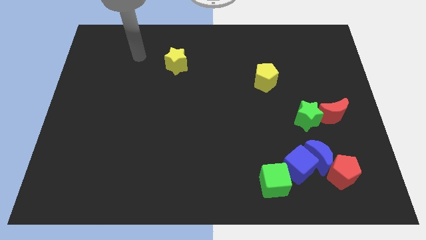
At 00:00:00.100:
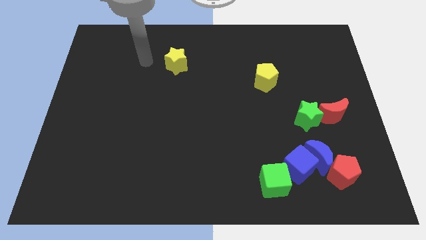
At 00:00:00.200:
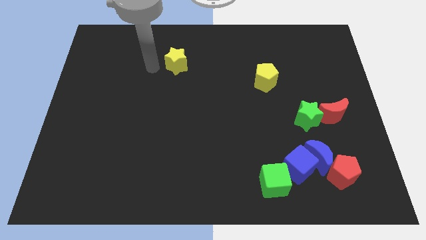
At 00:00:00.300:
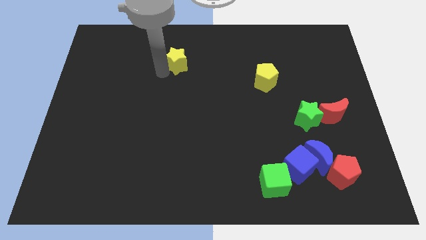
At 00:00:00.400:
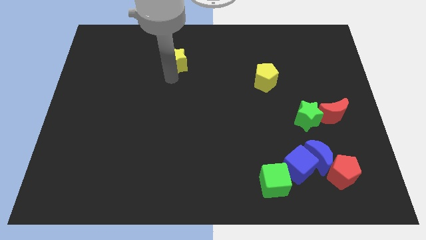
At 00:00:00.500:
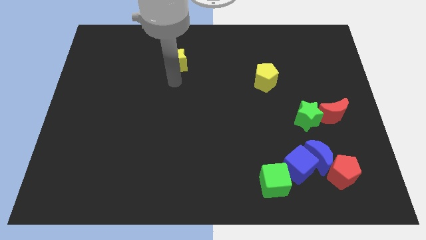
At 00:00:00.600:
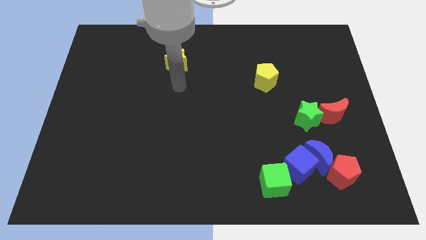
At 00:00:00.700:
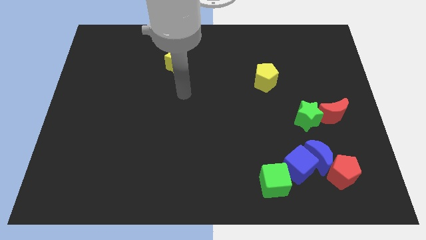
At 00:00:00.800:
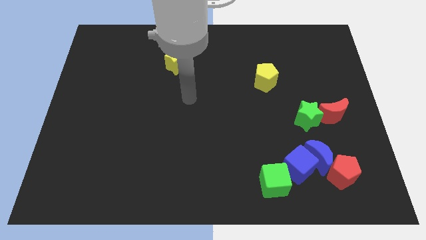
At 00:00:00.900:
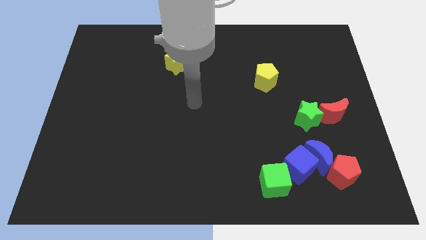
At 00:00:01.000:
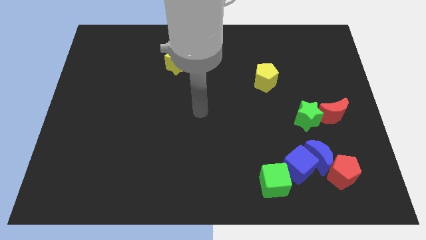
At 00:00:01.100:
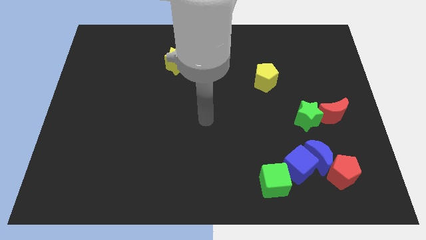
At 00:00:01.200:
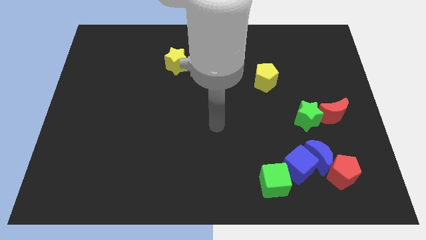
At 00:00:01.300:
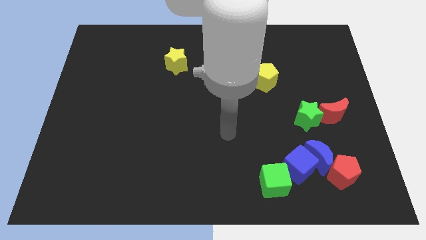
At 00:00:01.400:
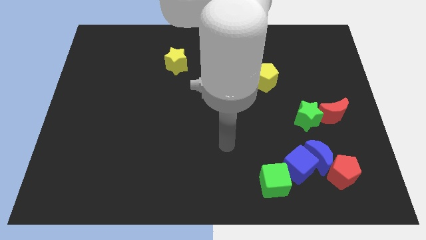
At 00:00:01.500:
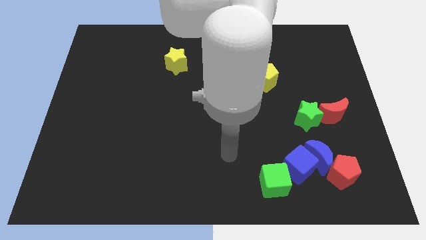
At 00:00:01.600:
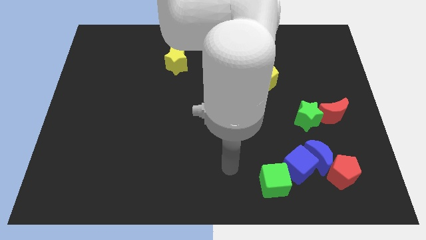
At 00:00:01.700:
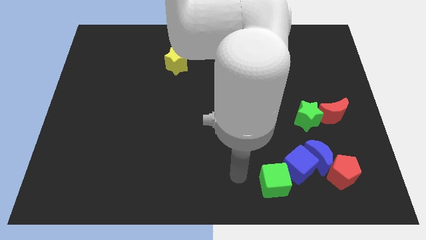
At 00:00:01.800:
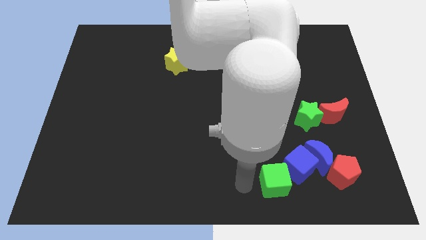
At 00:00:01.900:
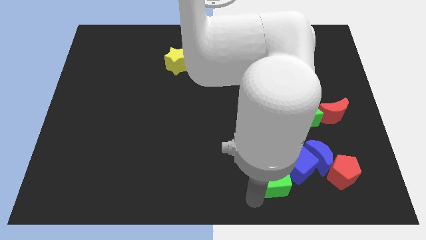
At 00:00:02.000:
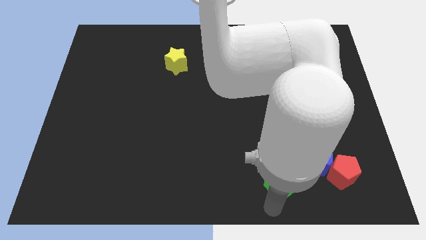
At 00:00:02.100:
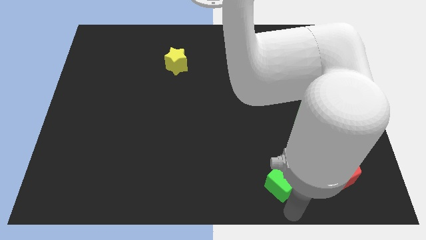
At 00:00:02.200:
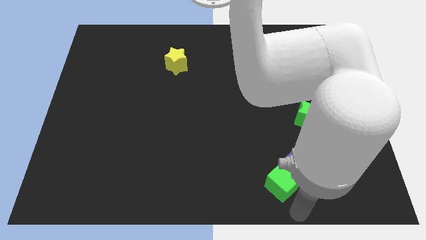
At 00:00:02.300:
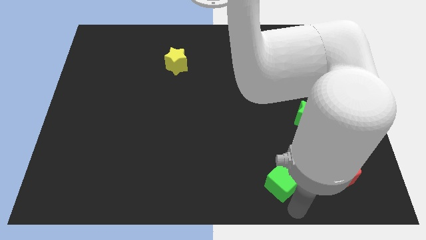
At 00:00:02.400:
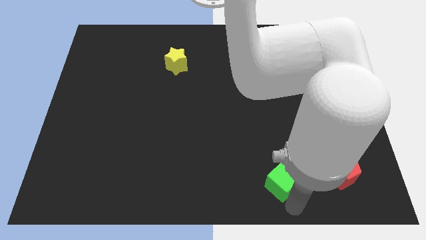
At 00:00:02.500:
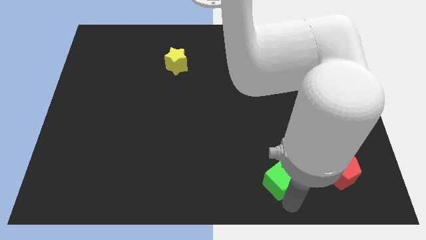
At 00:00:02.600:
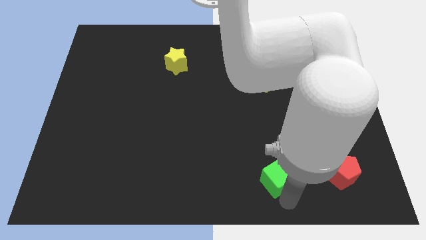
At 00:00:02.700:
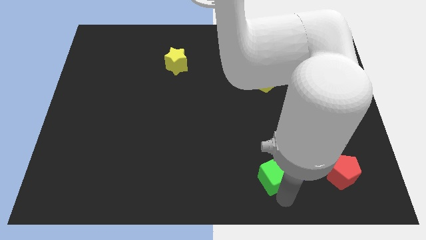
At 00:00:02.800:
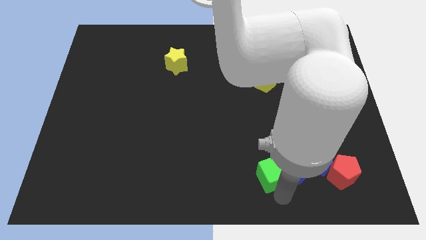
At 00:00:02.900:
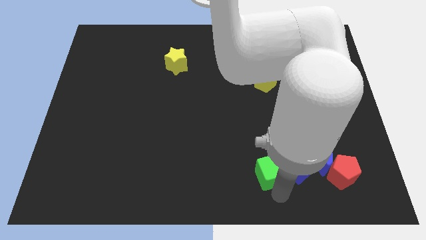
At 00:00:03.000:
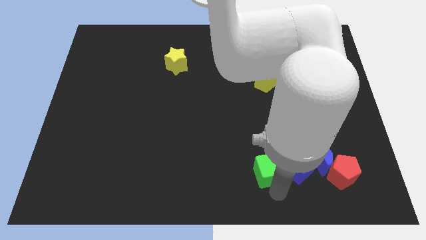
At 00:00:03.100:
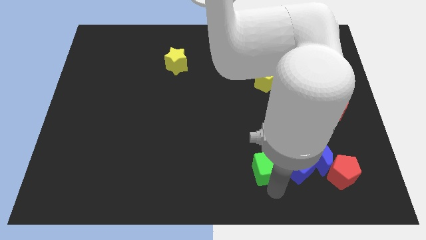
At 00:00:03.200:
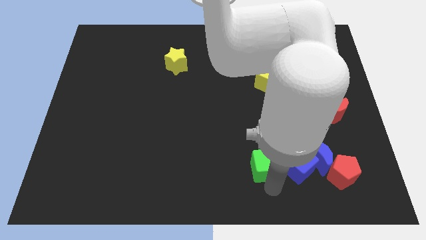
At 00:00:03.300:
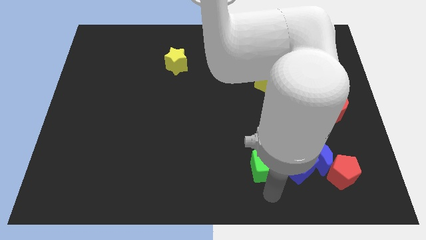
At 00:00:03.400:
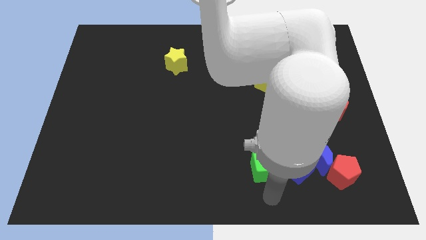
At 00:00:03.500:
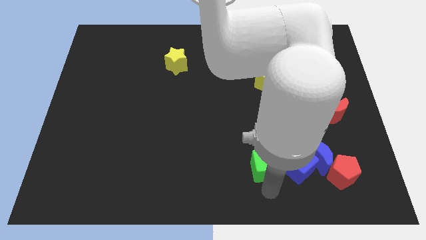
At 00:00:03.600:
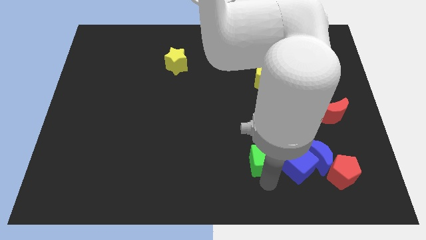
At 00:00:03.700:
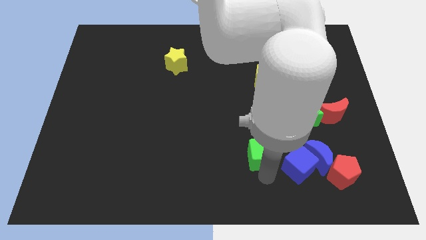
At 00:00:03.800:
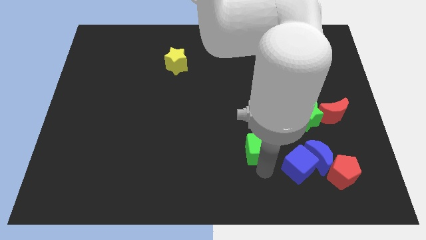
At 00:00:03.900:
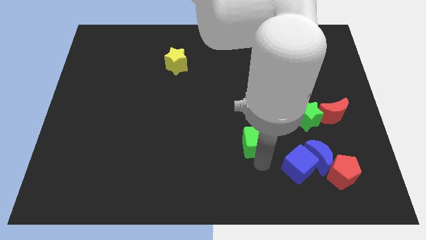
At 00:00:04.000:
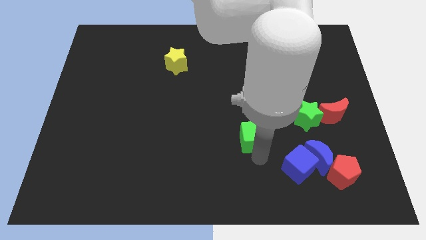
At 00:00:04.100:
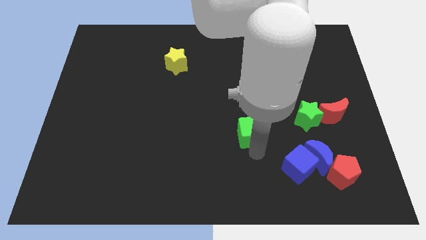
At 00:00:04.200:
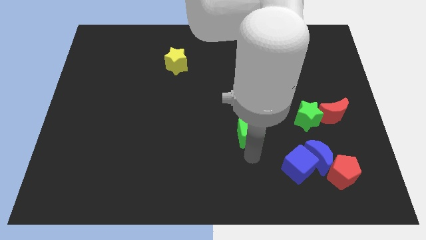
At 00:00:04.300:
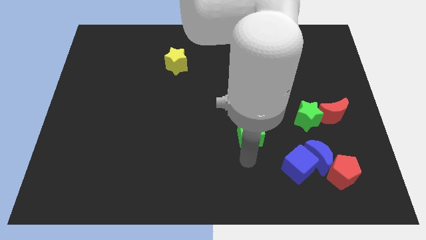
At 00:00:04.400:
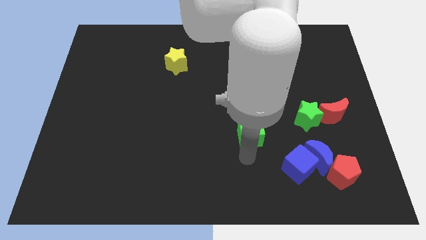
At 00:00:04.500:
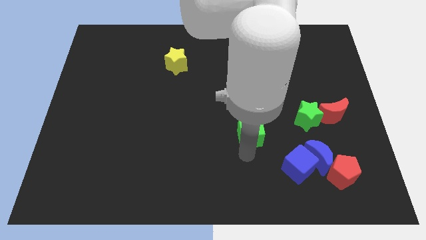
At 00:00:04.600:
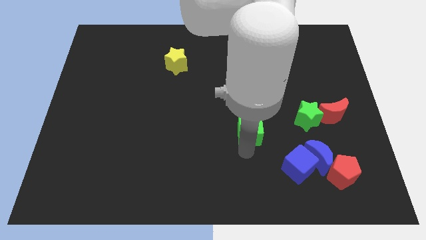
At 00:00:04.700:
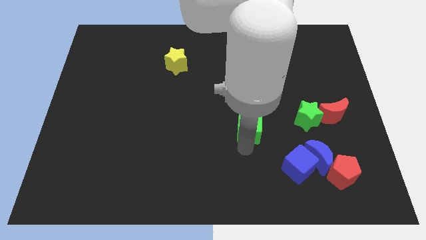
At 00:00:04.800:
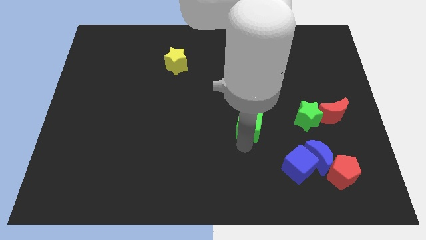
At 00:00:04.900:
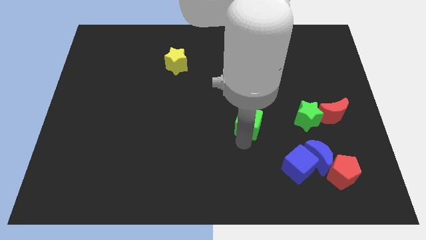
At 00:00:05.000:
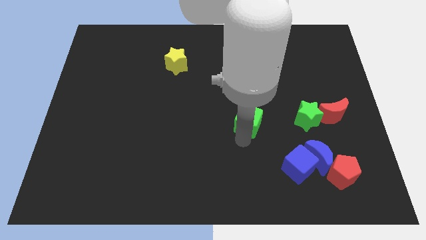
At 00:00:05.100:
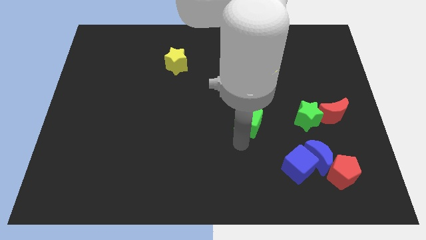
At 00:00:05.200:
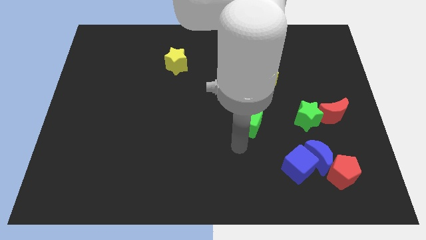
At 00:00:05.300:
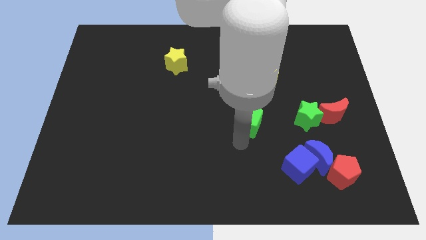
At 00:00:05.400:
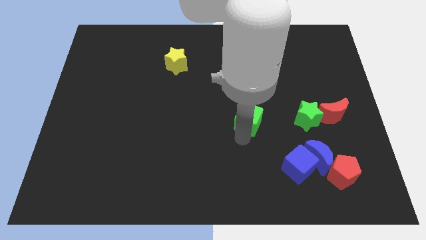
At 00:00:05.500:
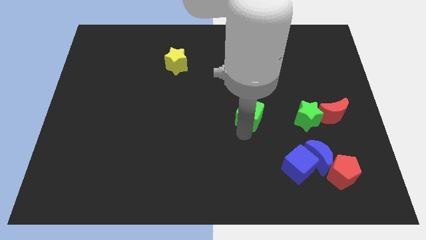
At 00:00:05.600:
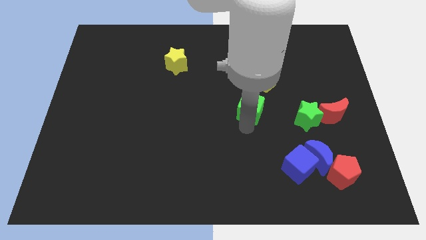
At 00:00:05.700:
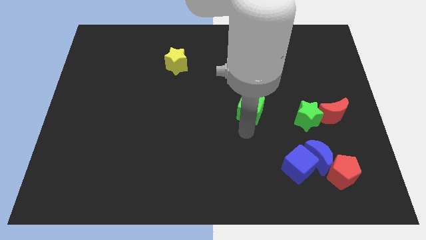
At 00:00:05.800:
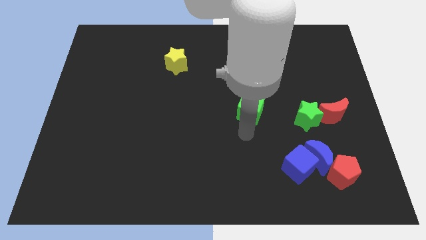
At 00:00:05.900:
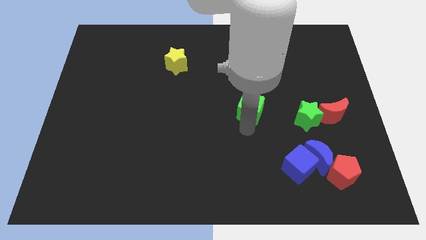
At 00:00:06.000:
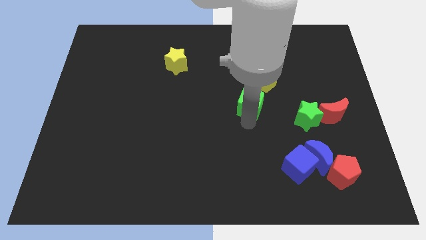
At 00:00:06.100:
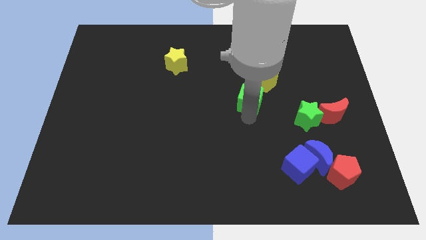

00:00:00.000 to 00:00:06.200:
move the green cube upwards

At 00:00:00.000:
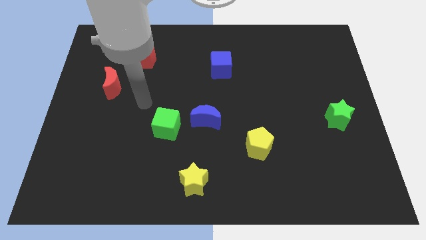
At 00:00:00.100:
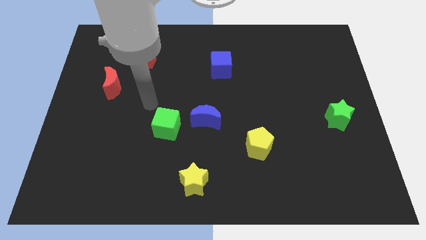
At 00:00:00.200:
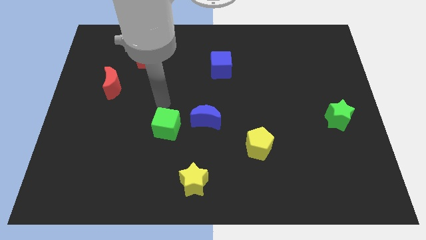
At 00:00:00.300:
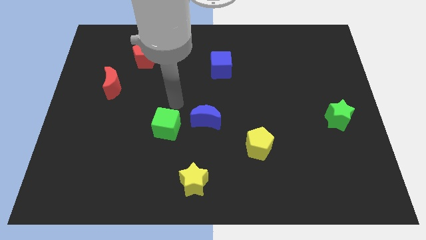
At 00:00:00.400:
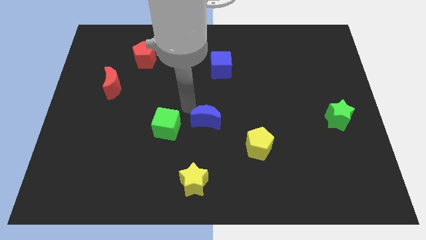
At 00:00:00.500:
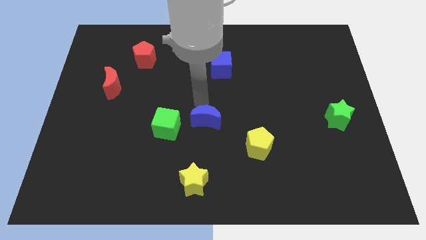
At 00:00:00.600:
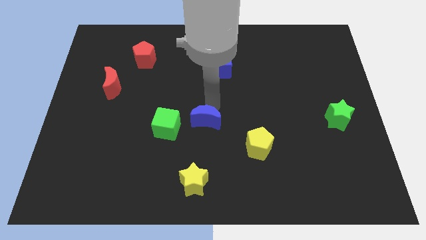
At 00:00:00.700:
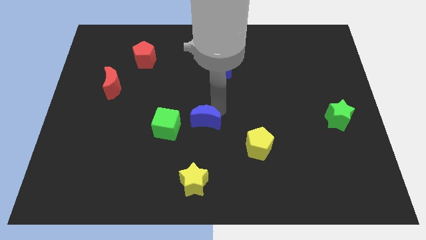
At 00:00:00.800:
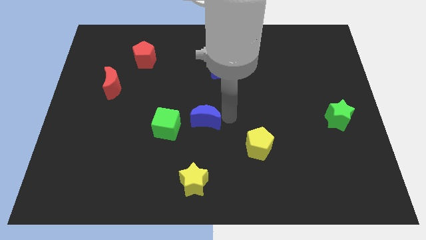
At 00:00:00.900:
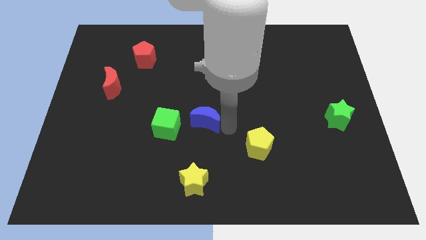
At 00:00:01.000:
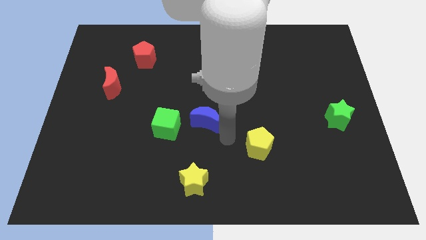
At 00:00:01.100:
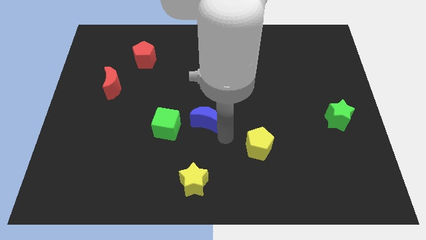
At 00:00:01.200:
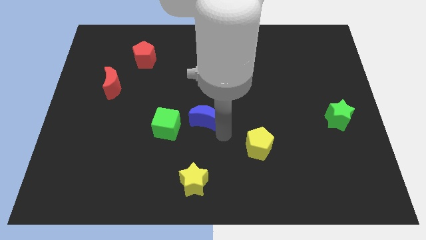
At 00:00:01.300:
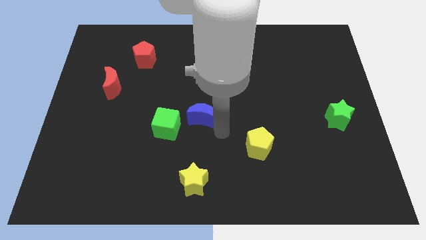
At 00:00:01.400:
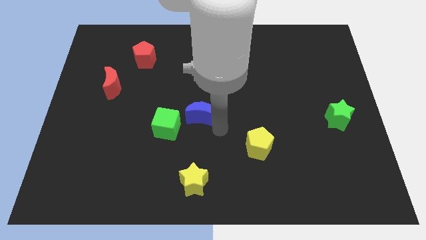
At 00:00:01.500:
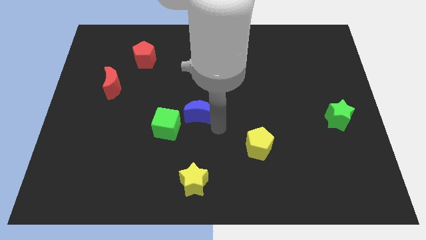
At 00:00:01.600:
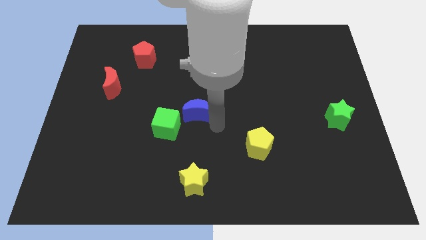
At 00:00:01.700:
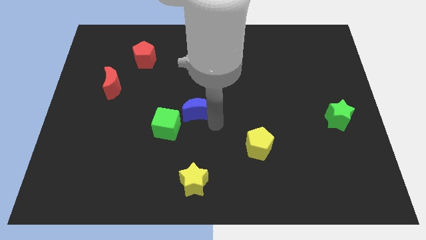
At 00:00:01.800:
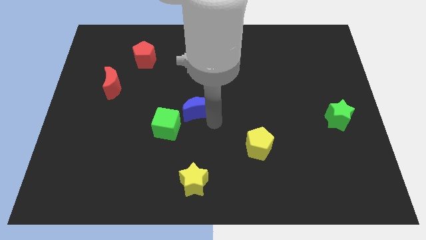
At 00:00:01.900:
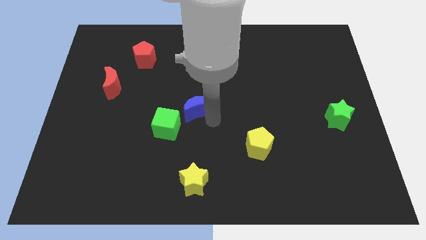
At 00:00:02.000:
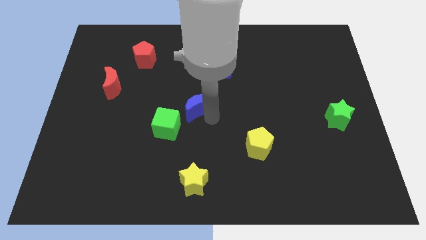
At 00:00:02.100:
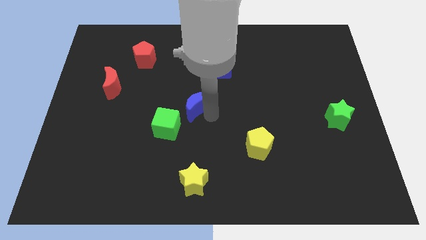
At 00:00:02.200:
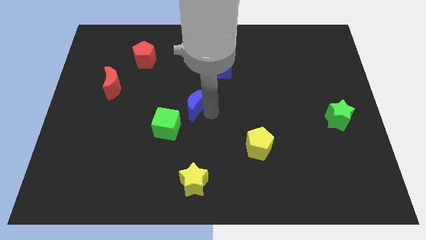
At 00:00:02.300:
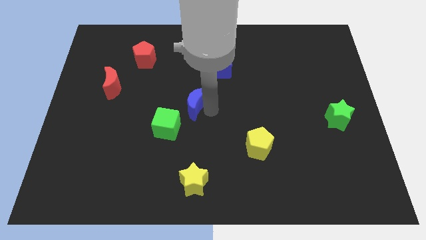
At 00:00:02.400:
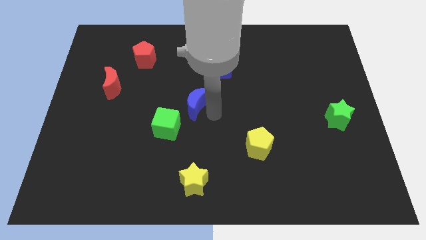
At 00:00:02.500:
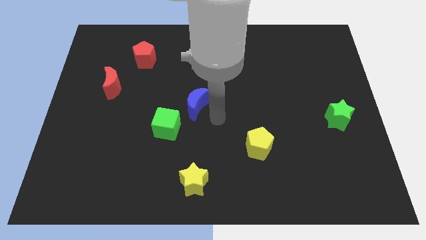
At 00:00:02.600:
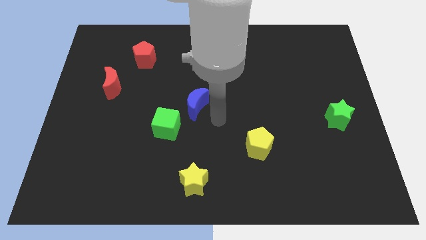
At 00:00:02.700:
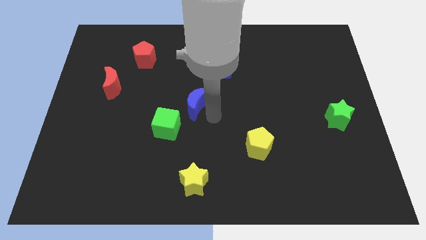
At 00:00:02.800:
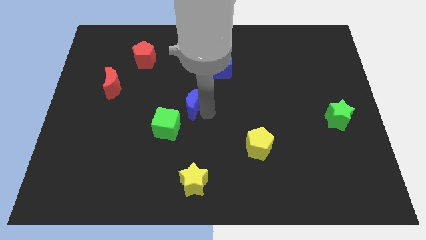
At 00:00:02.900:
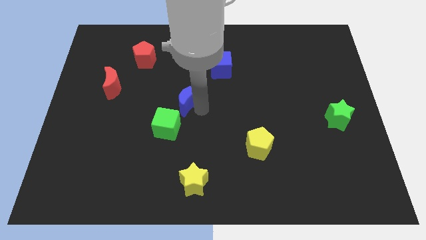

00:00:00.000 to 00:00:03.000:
slightly slide the blue moon up and to the left
